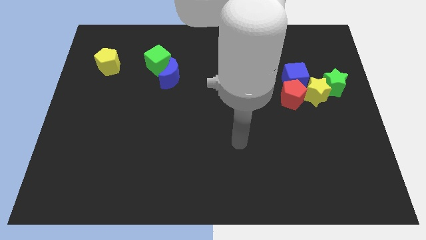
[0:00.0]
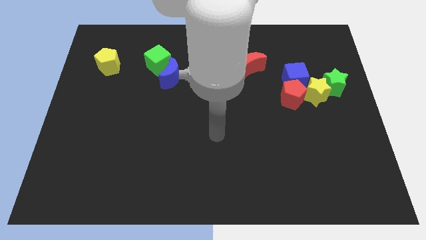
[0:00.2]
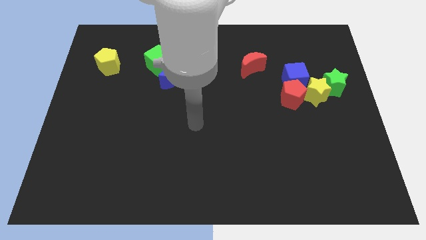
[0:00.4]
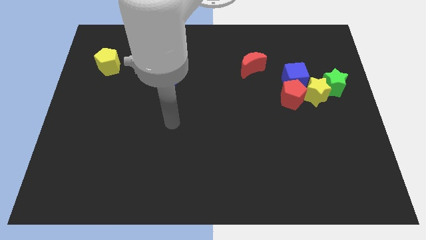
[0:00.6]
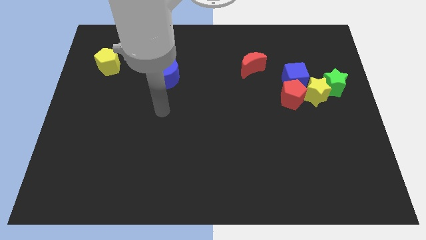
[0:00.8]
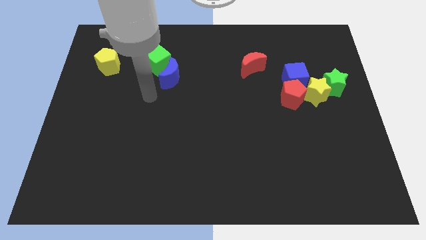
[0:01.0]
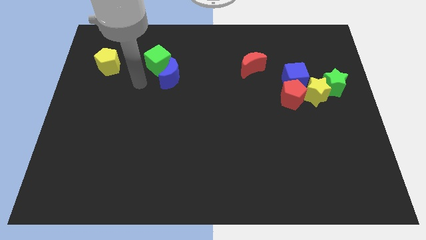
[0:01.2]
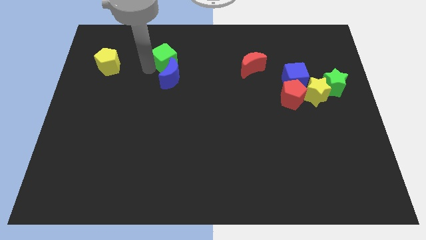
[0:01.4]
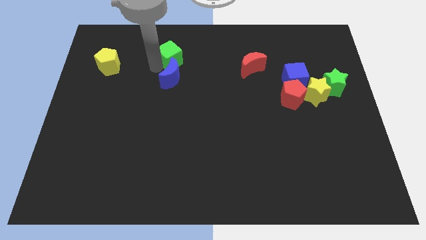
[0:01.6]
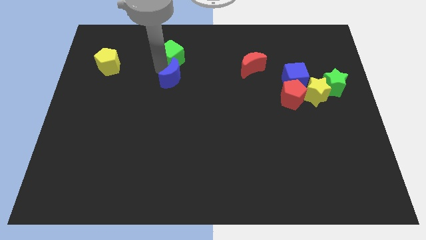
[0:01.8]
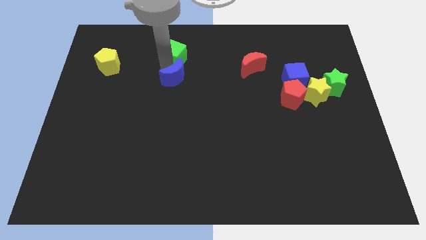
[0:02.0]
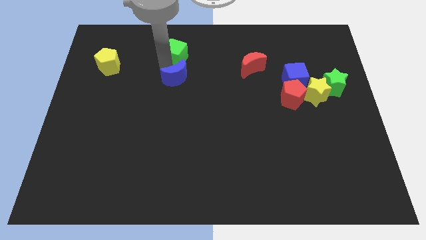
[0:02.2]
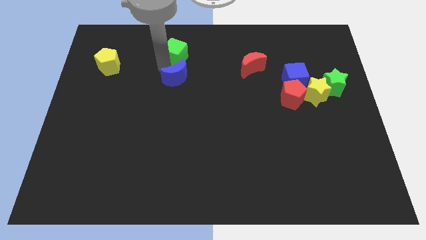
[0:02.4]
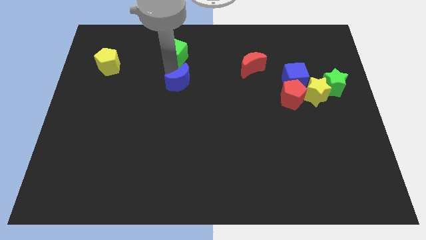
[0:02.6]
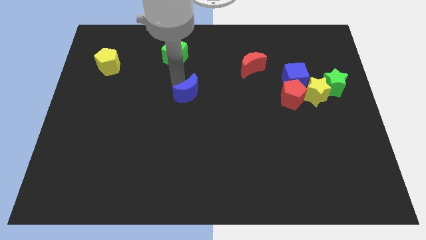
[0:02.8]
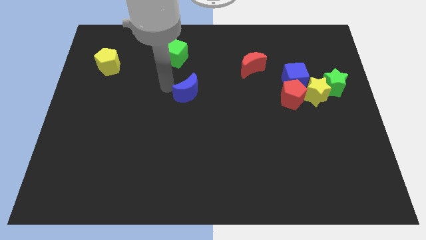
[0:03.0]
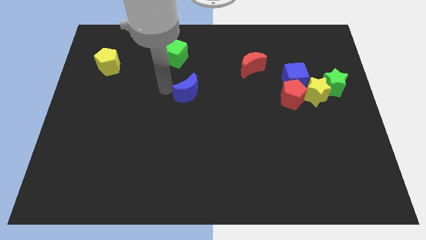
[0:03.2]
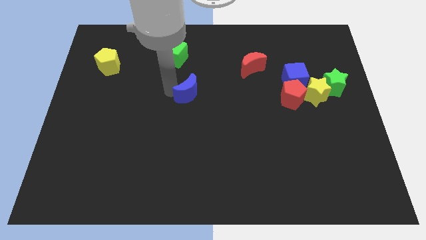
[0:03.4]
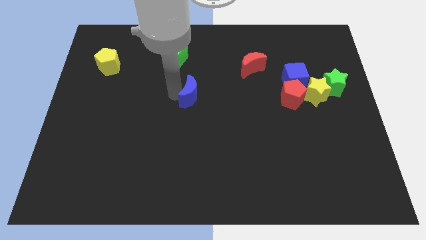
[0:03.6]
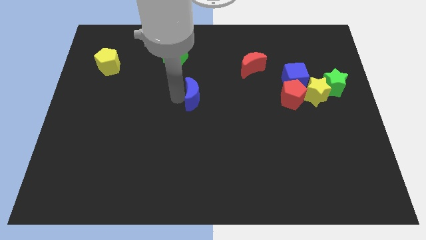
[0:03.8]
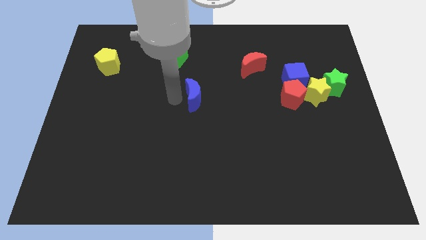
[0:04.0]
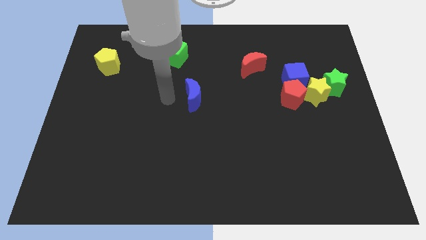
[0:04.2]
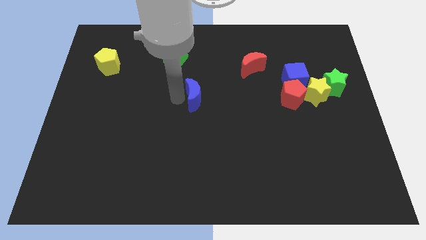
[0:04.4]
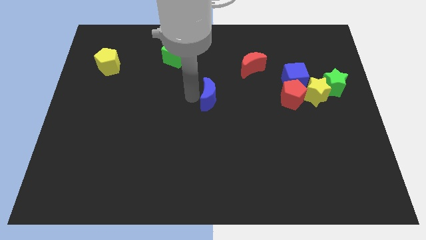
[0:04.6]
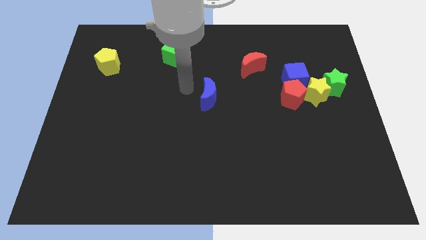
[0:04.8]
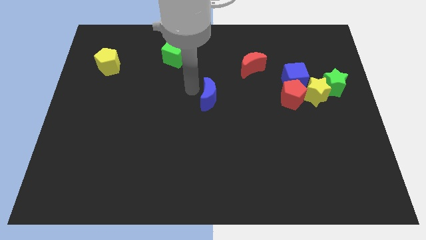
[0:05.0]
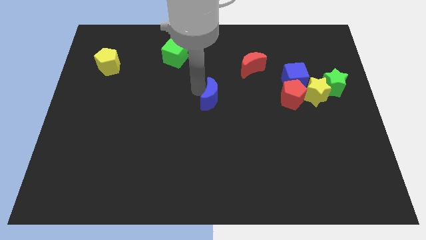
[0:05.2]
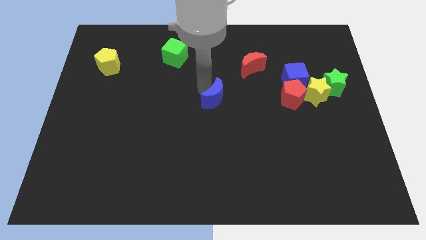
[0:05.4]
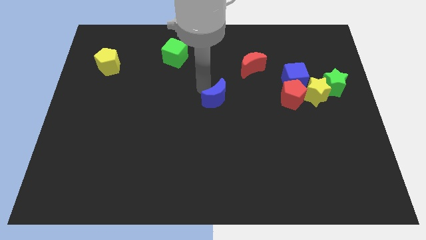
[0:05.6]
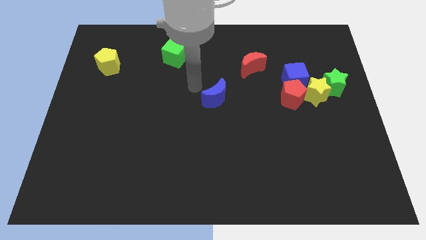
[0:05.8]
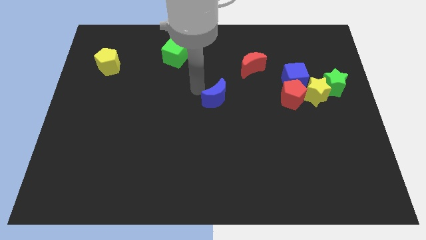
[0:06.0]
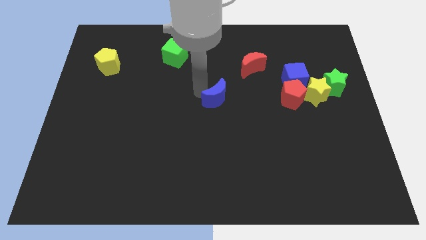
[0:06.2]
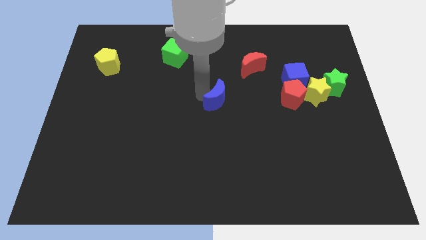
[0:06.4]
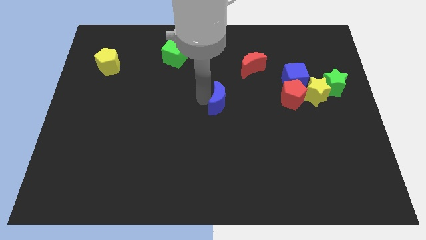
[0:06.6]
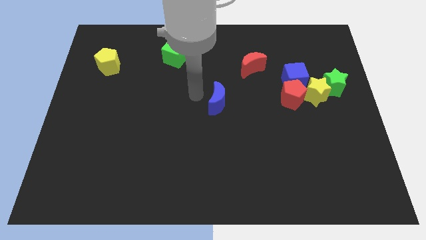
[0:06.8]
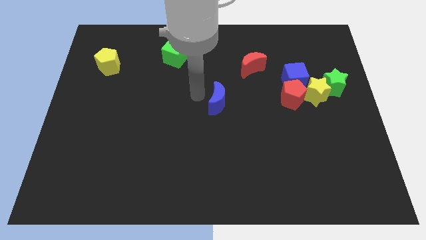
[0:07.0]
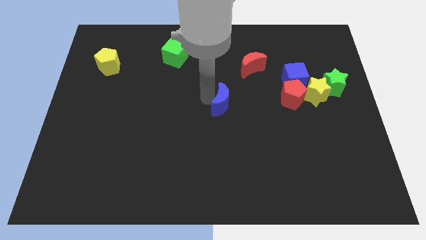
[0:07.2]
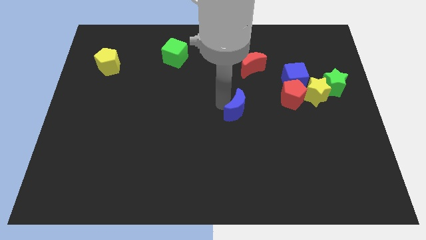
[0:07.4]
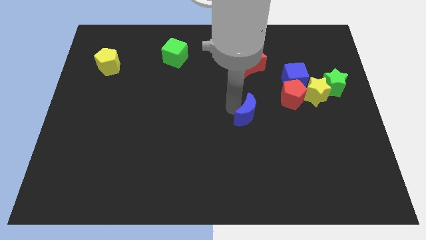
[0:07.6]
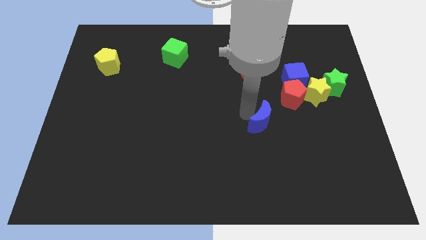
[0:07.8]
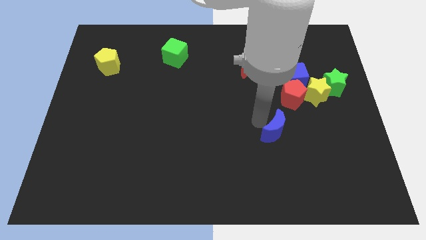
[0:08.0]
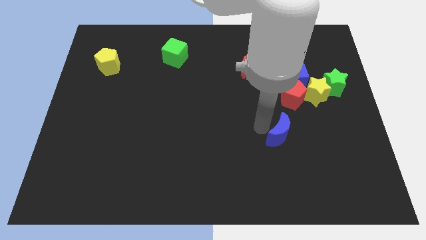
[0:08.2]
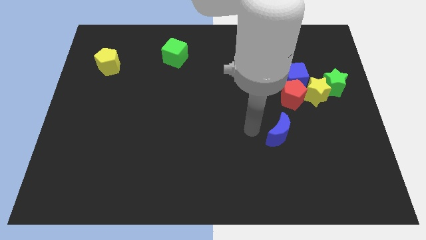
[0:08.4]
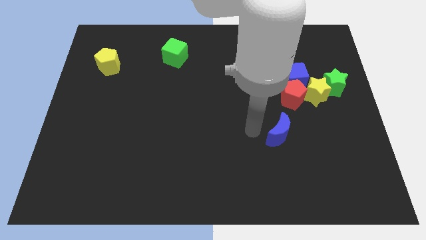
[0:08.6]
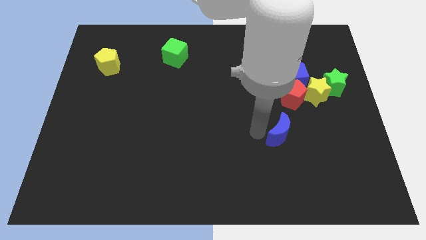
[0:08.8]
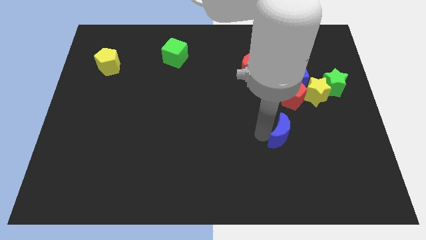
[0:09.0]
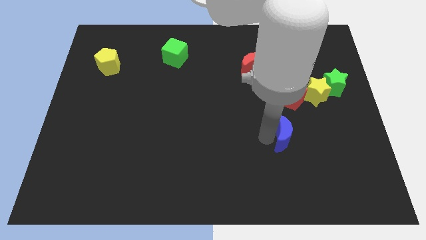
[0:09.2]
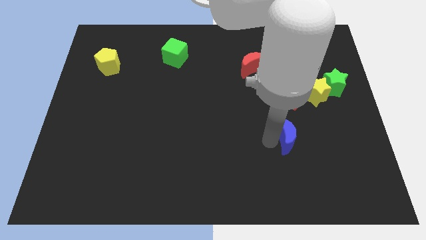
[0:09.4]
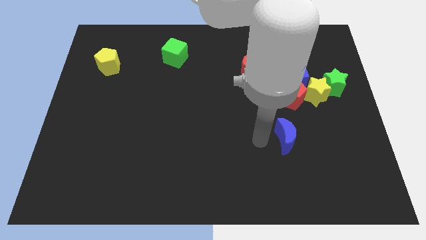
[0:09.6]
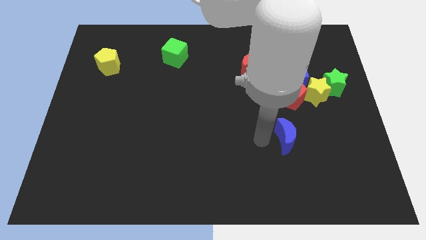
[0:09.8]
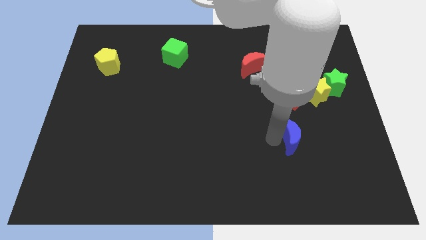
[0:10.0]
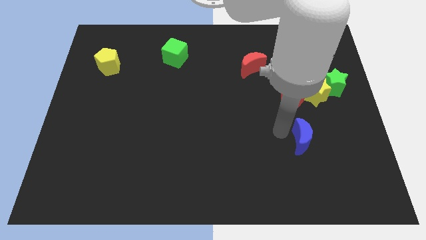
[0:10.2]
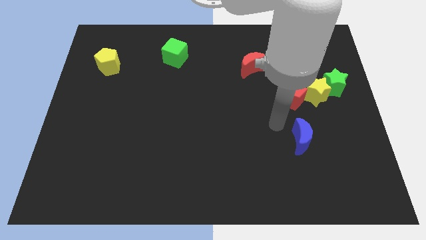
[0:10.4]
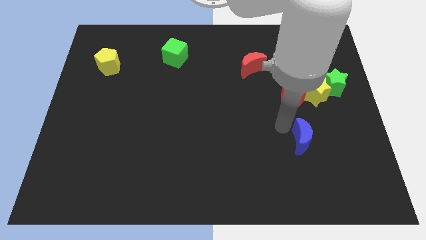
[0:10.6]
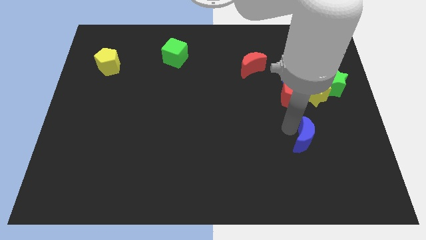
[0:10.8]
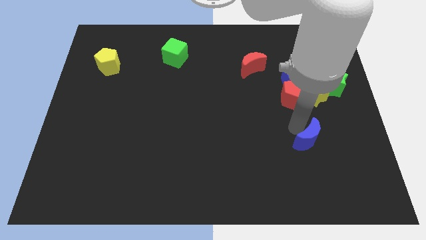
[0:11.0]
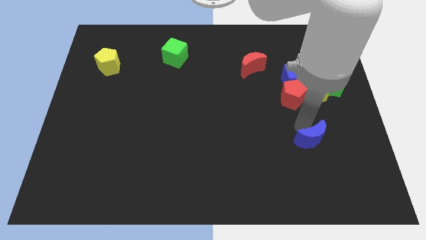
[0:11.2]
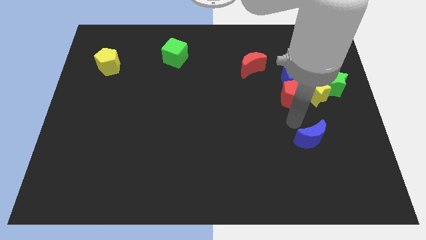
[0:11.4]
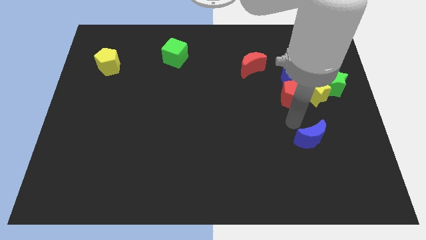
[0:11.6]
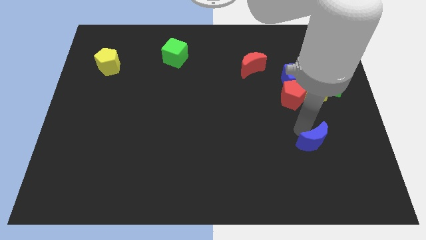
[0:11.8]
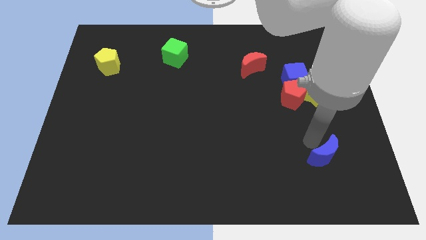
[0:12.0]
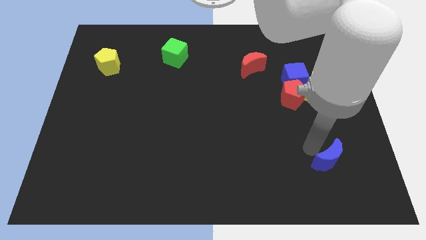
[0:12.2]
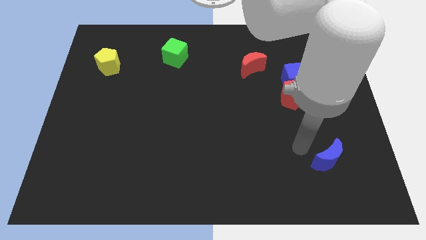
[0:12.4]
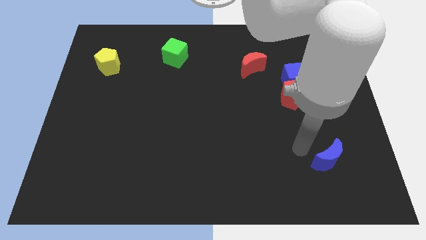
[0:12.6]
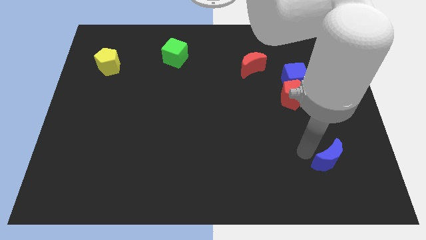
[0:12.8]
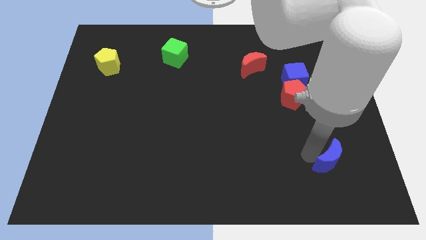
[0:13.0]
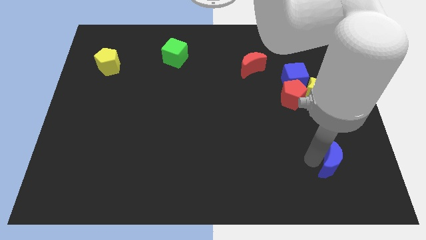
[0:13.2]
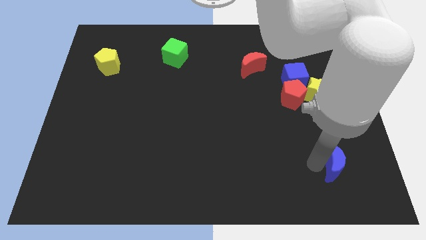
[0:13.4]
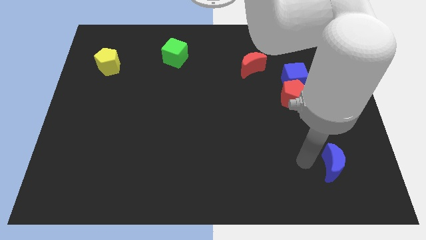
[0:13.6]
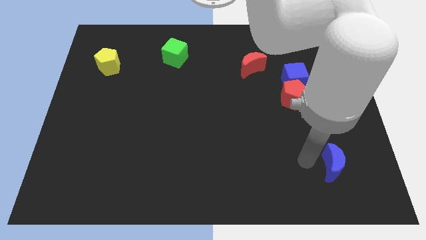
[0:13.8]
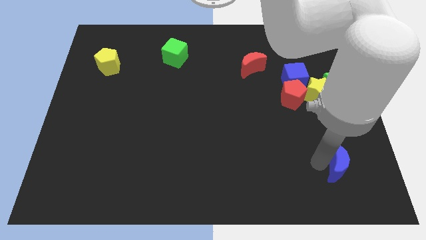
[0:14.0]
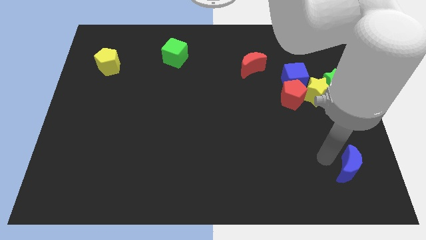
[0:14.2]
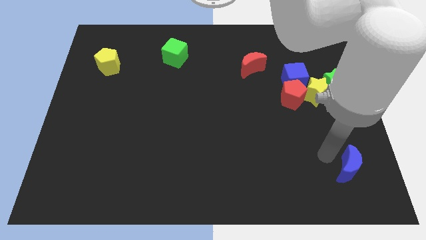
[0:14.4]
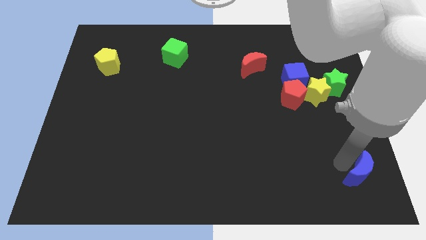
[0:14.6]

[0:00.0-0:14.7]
put the blue moon to the bottom right of the board
